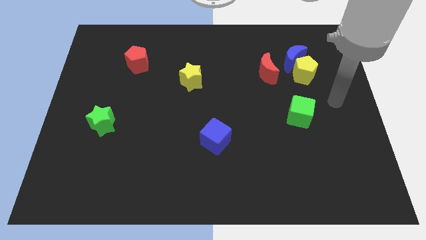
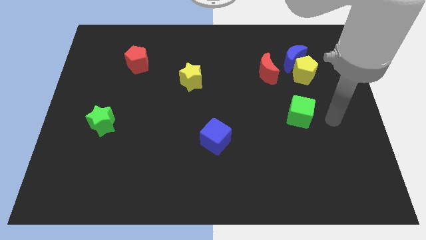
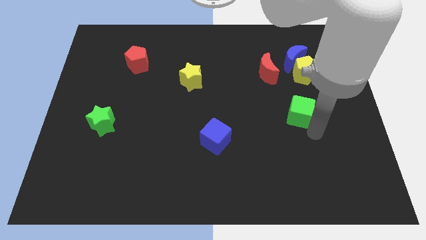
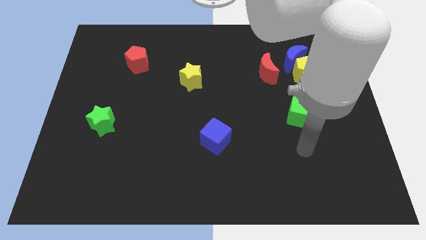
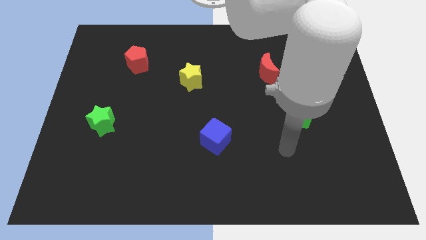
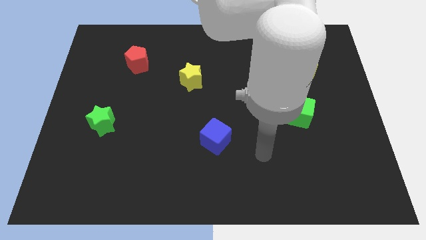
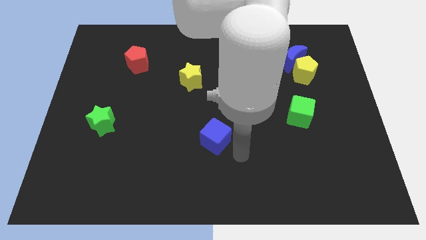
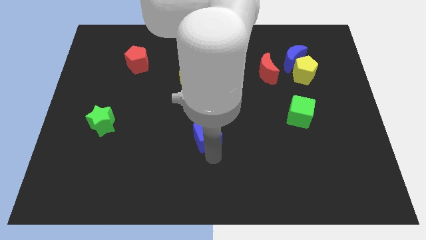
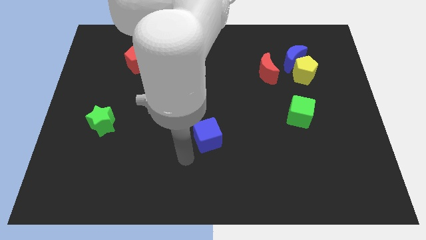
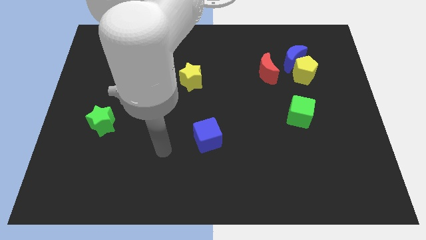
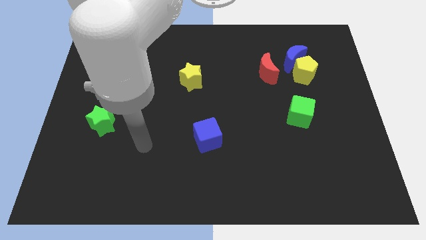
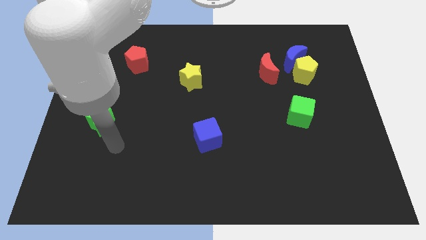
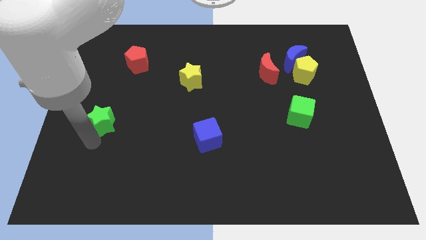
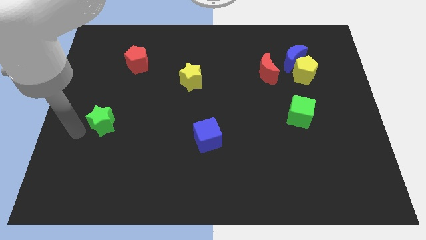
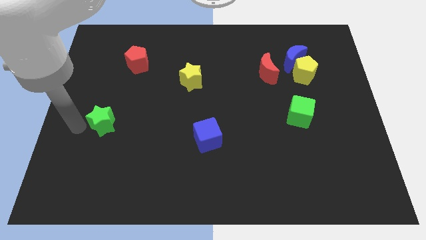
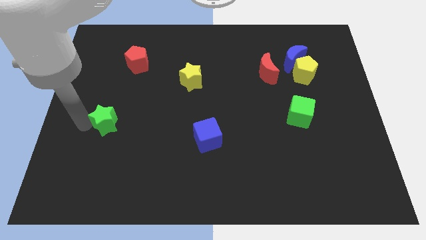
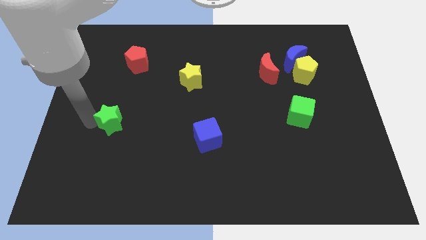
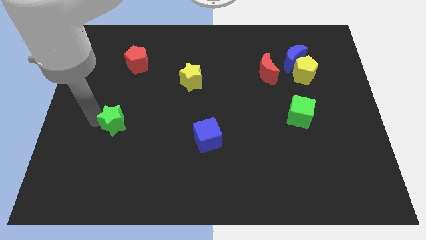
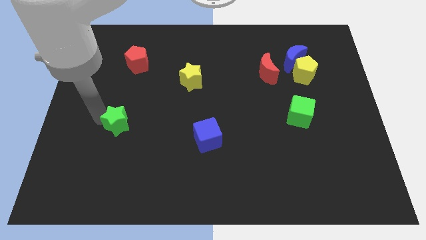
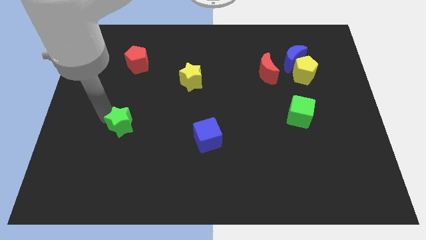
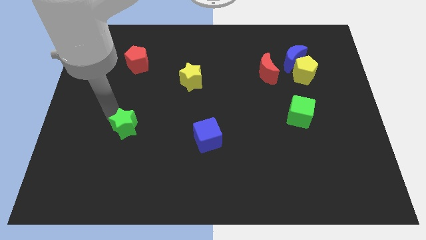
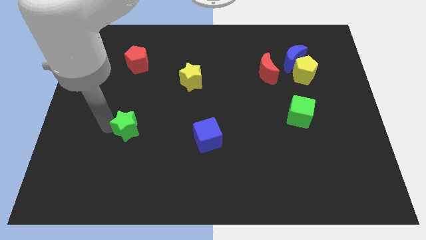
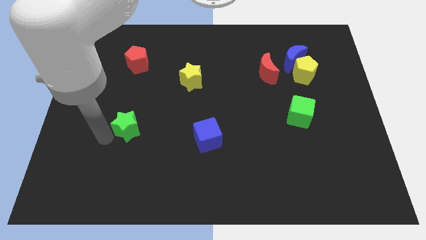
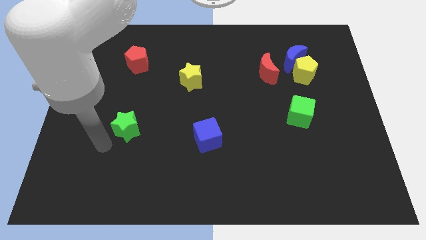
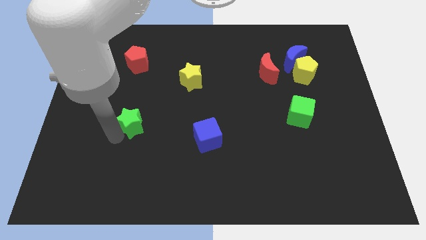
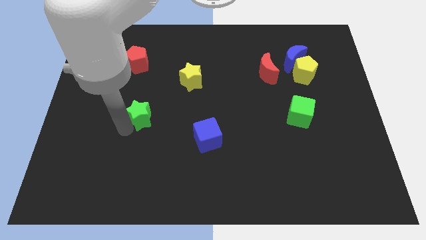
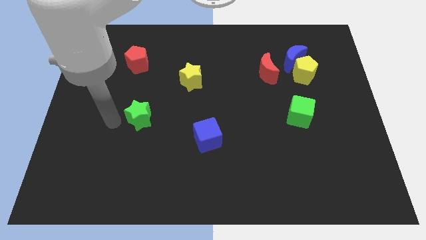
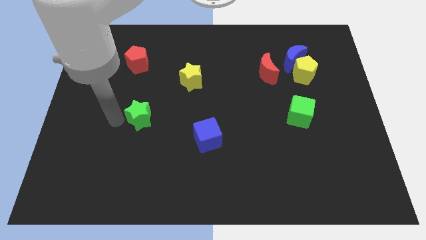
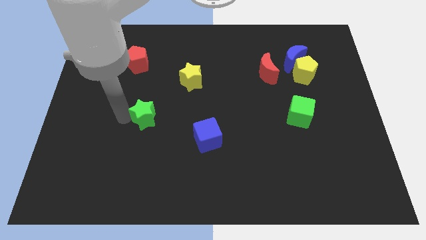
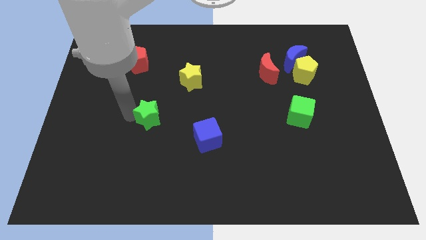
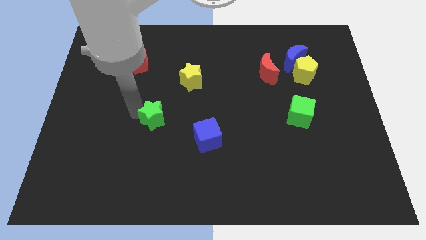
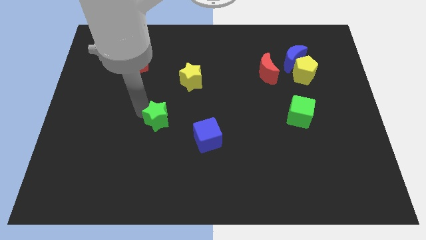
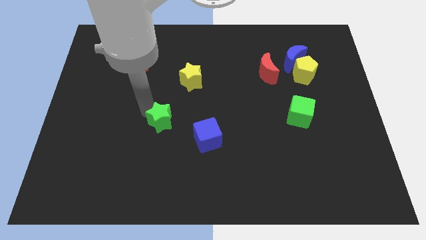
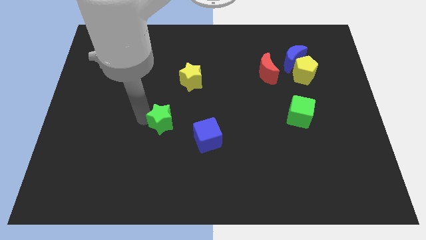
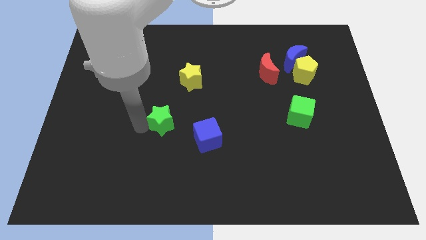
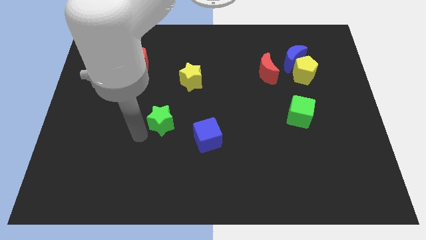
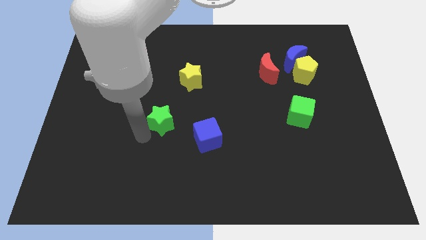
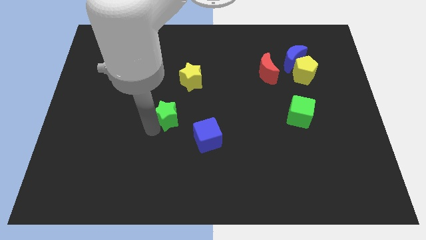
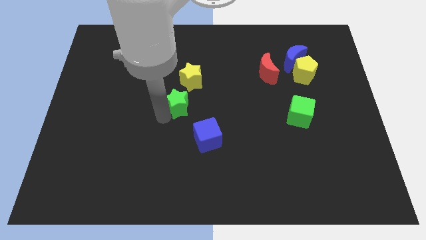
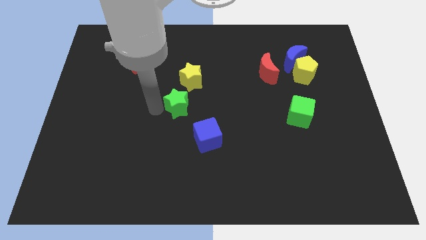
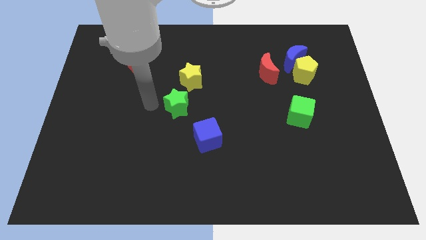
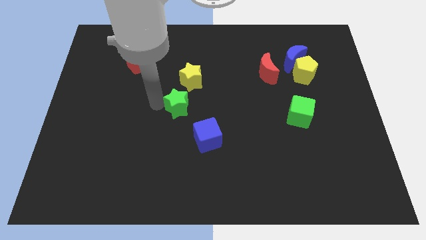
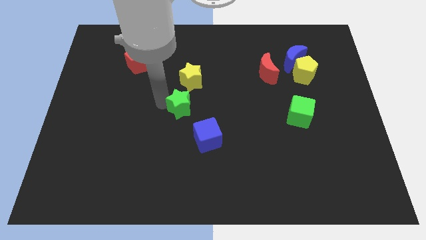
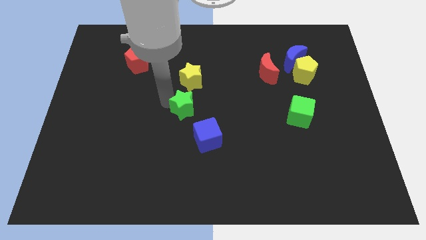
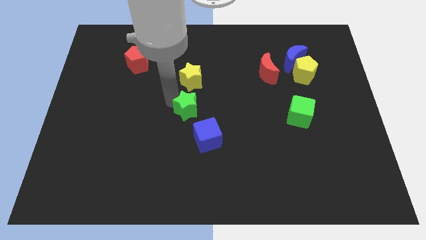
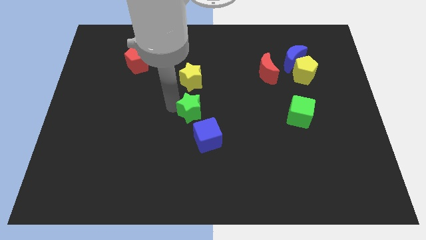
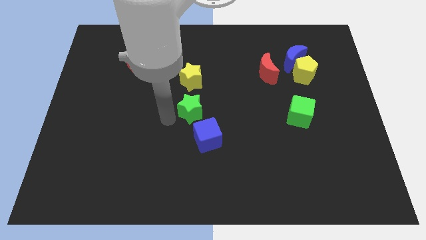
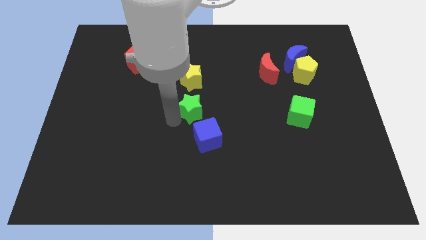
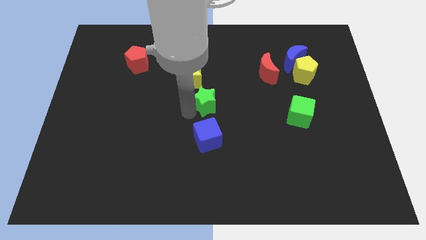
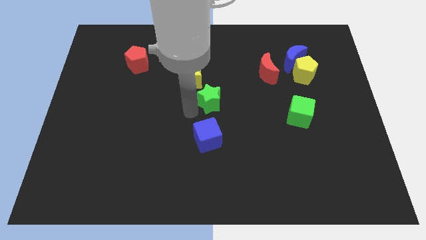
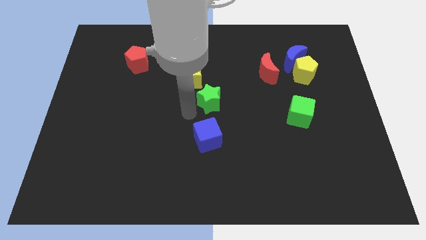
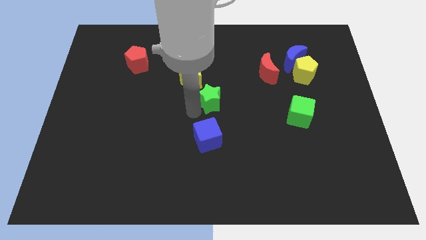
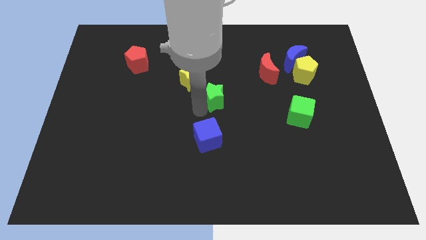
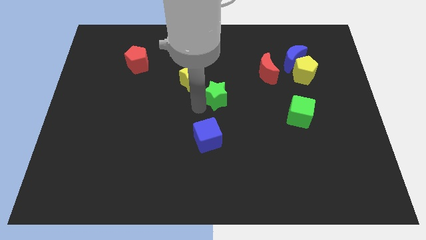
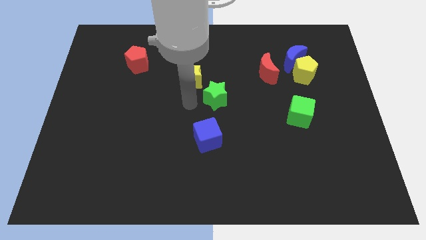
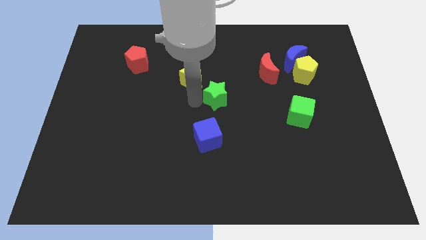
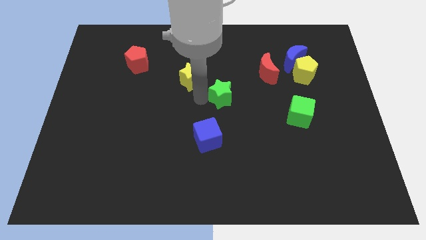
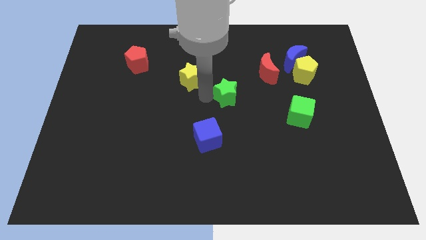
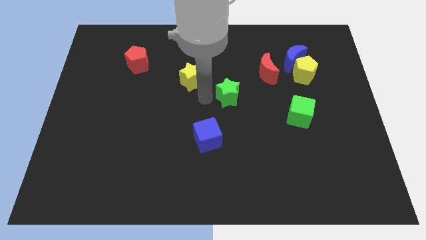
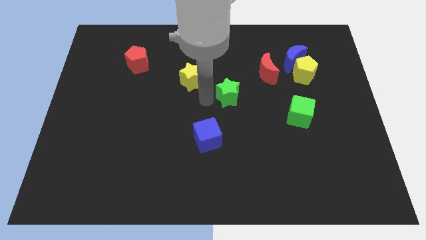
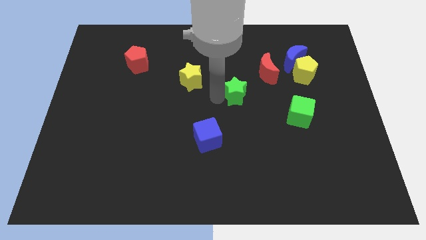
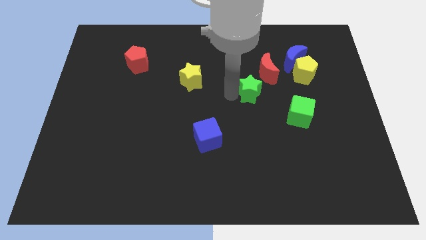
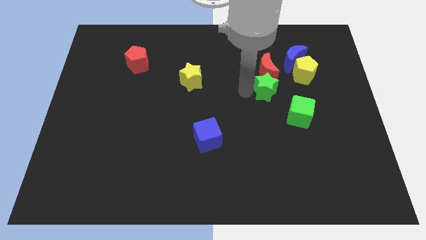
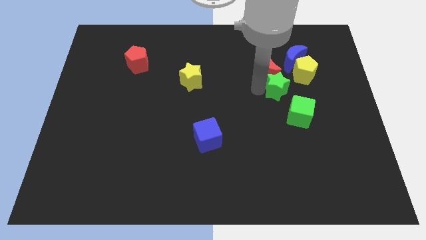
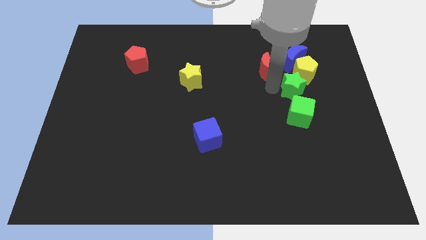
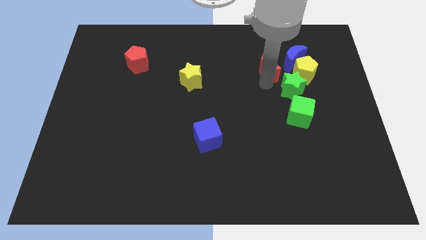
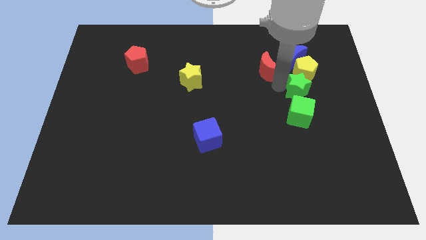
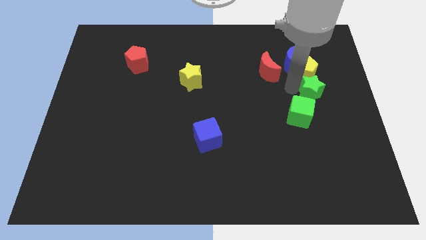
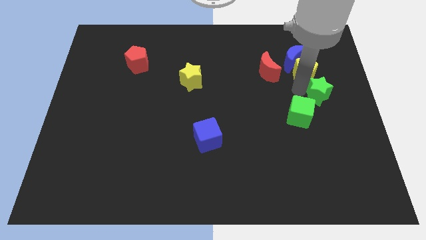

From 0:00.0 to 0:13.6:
push the green star to the center right

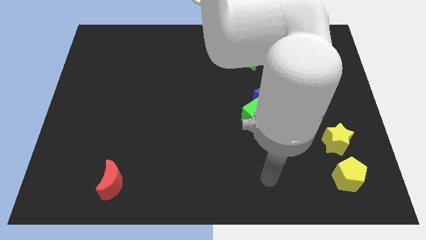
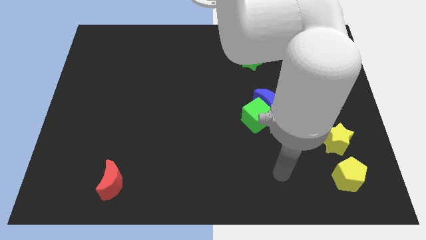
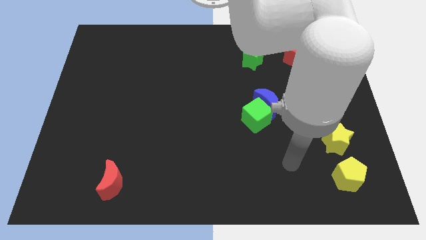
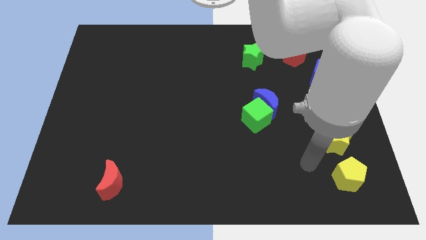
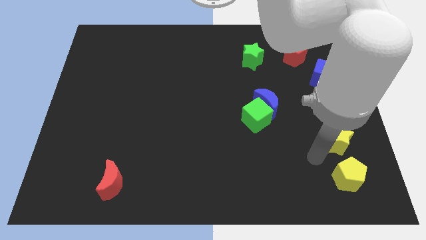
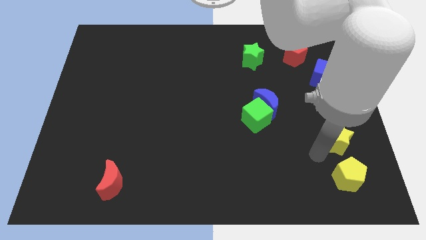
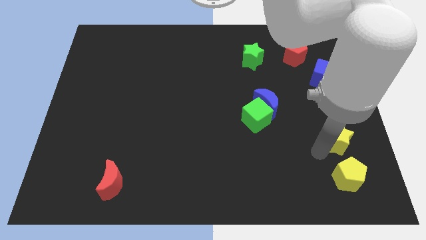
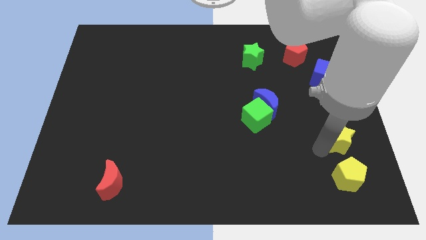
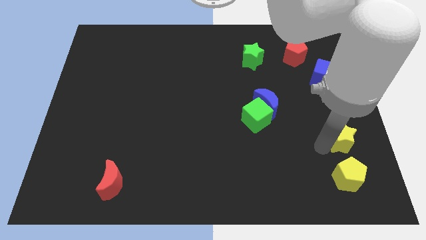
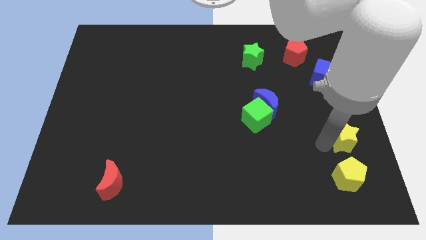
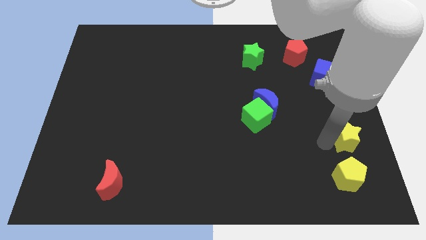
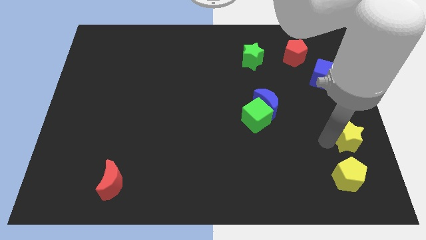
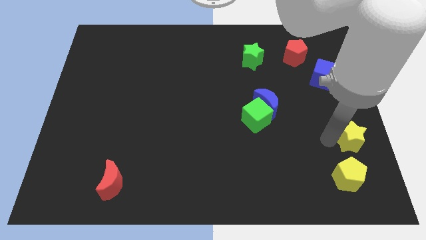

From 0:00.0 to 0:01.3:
move the yellow star to the right side of the board
